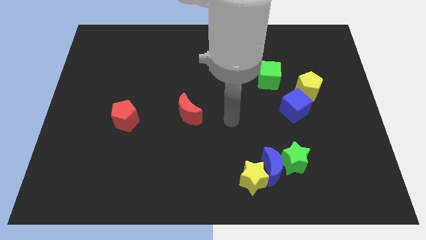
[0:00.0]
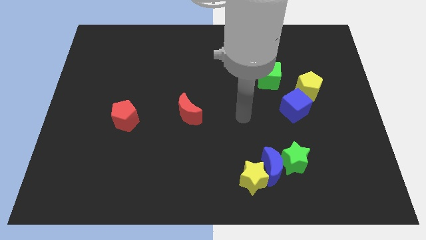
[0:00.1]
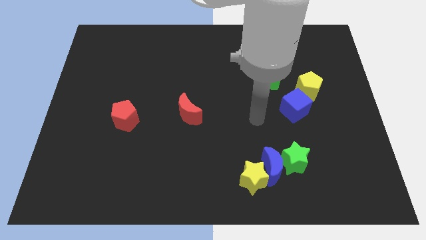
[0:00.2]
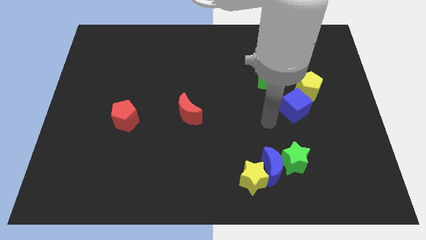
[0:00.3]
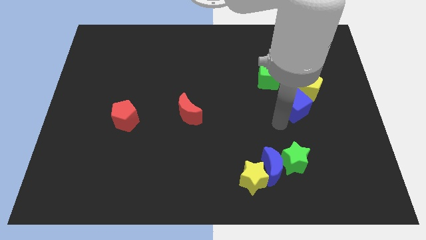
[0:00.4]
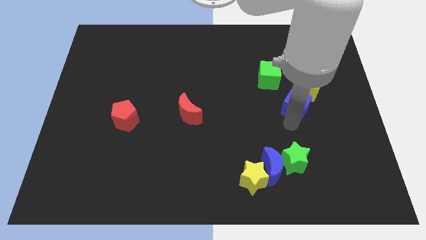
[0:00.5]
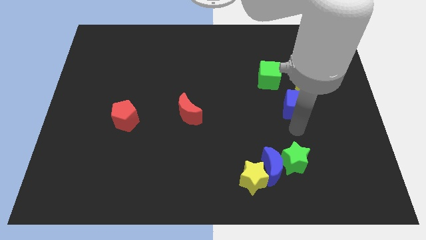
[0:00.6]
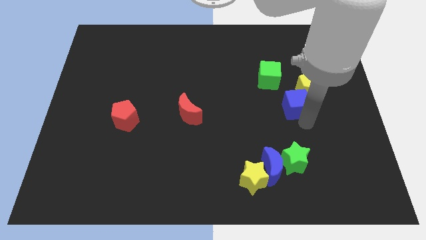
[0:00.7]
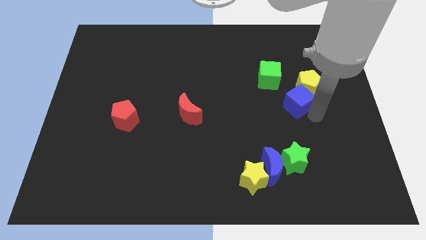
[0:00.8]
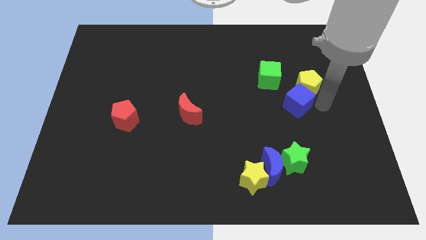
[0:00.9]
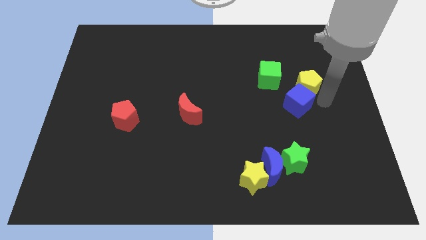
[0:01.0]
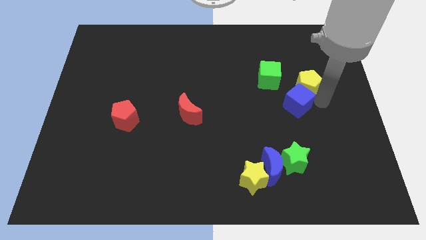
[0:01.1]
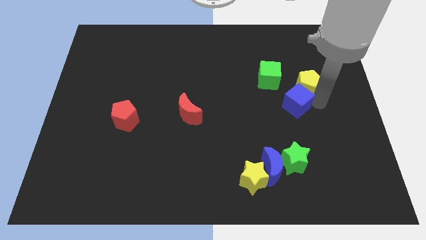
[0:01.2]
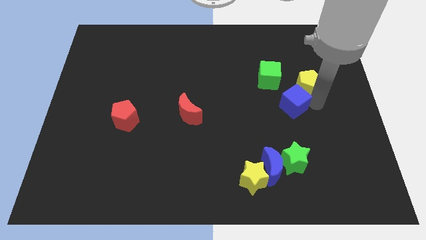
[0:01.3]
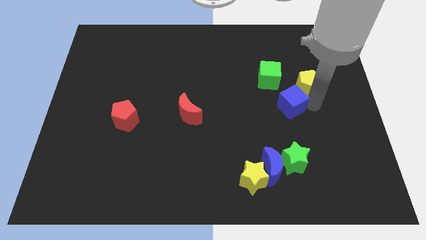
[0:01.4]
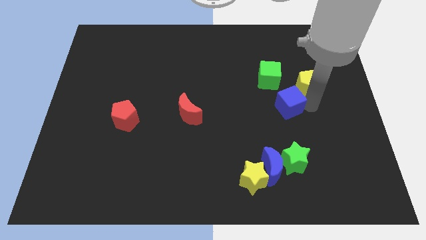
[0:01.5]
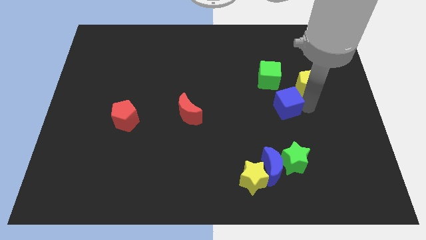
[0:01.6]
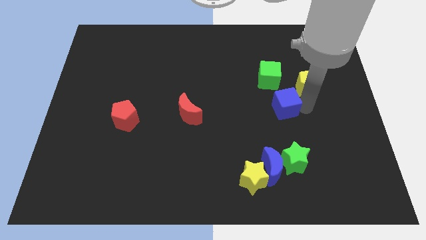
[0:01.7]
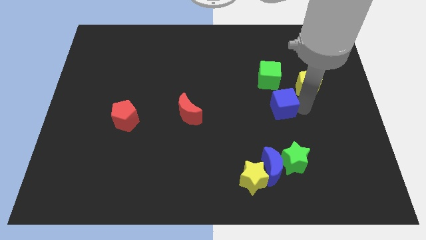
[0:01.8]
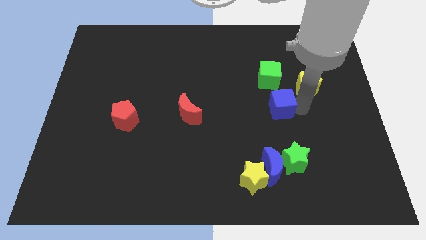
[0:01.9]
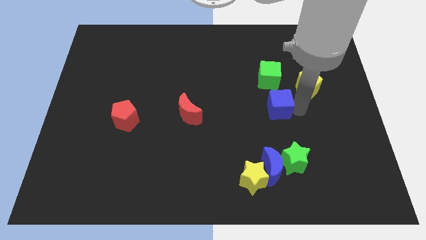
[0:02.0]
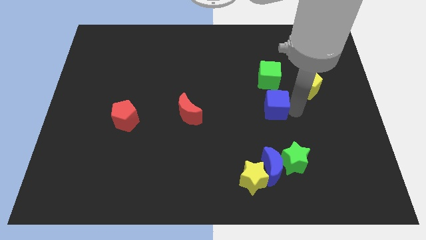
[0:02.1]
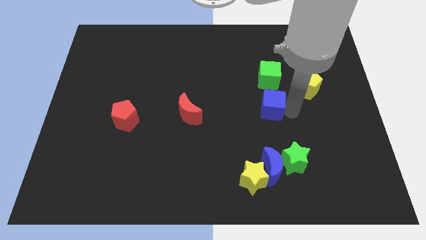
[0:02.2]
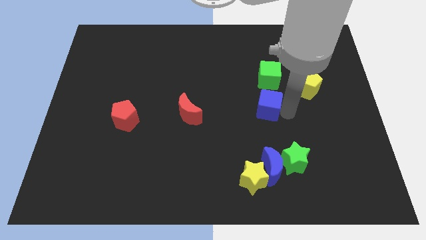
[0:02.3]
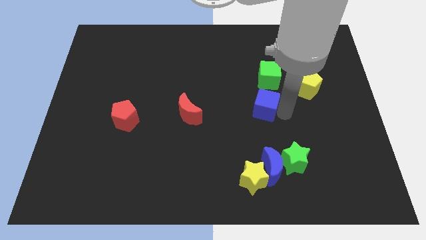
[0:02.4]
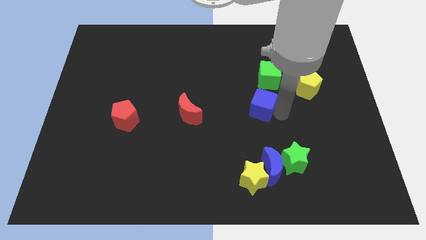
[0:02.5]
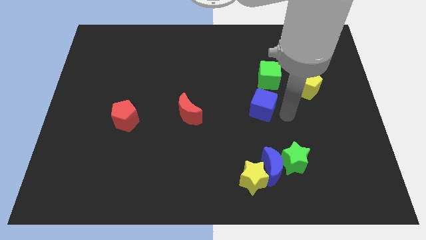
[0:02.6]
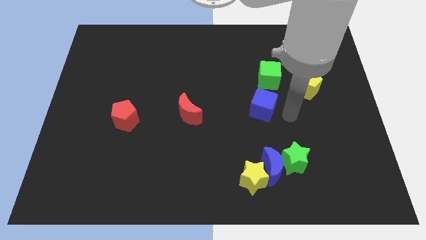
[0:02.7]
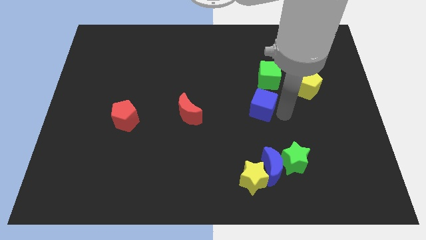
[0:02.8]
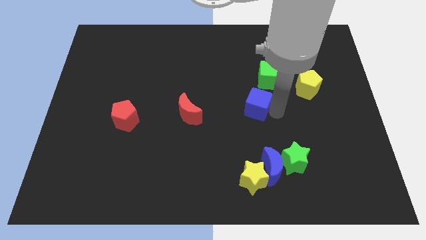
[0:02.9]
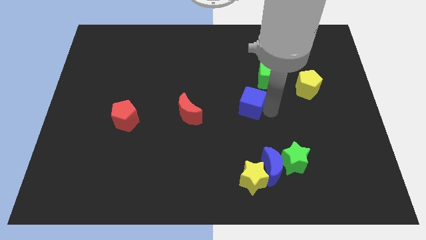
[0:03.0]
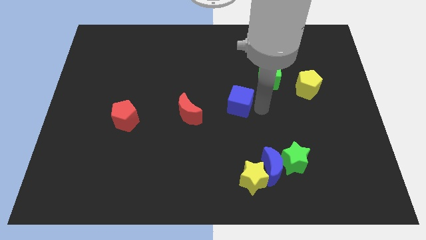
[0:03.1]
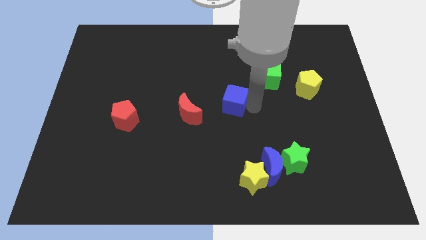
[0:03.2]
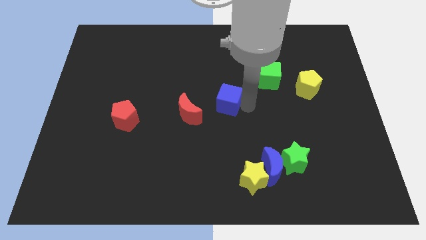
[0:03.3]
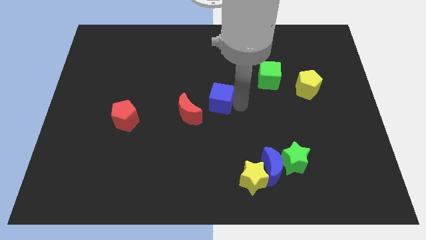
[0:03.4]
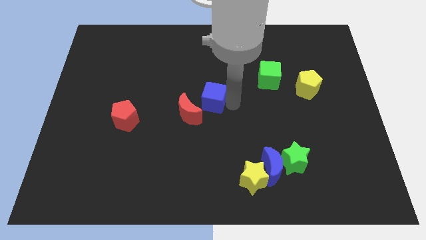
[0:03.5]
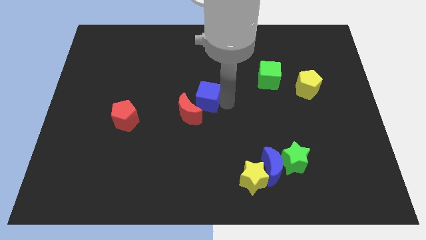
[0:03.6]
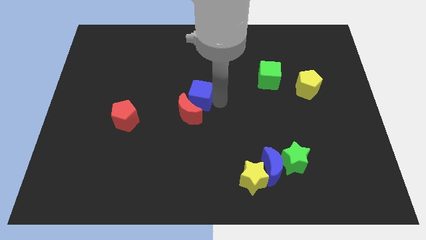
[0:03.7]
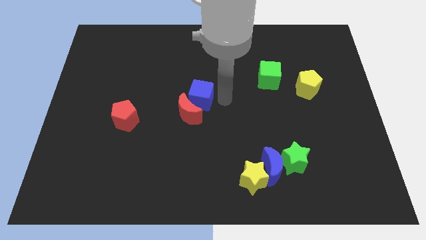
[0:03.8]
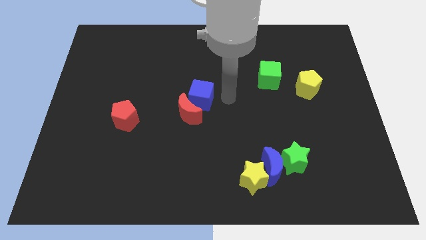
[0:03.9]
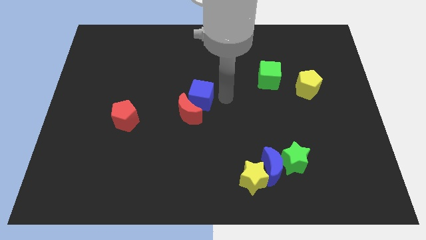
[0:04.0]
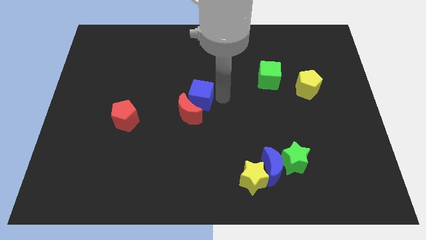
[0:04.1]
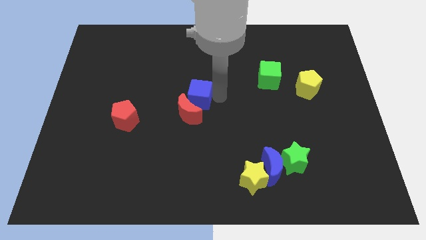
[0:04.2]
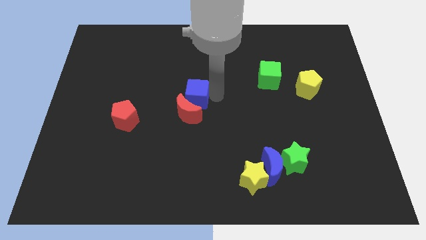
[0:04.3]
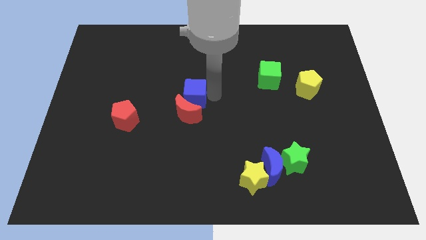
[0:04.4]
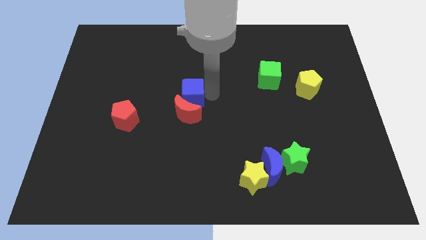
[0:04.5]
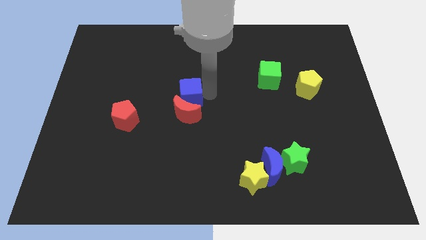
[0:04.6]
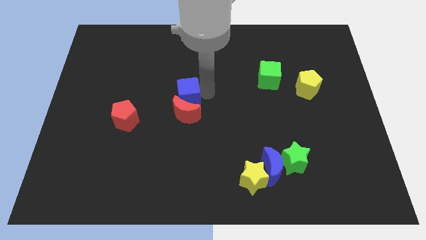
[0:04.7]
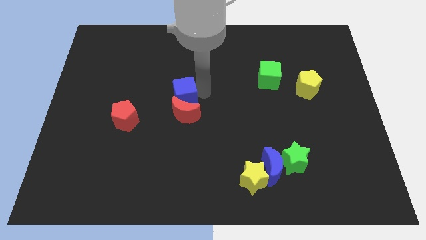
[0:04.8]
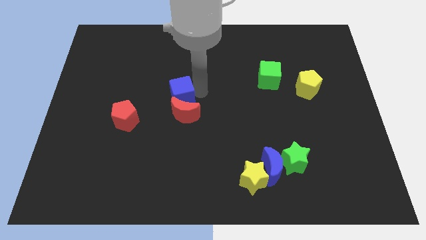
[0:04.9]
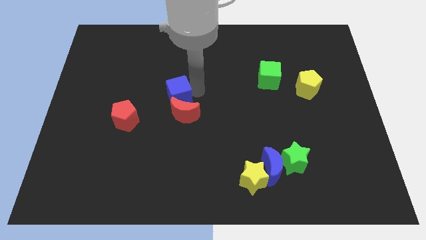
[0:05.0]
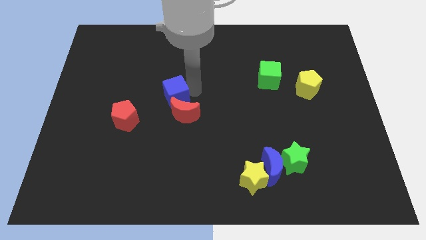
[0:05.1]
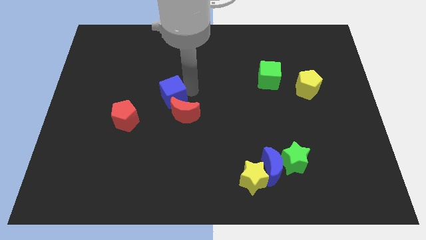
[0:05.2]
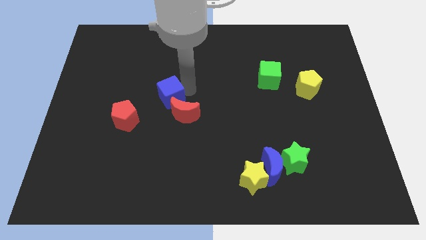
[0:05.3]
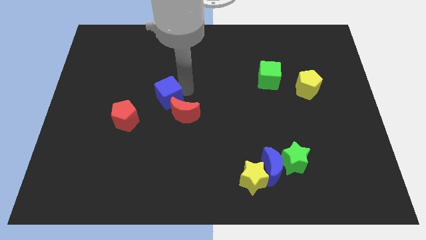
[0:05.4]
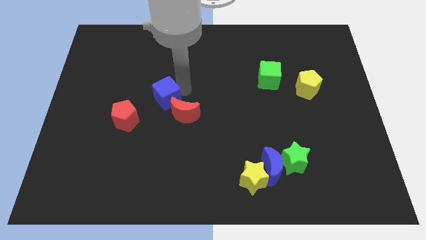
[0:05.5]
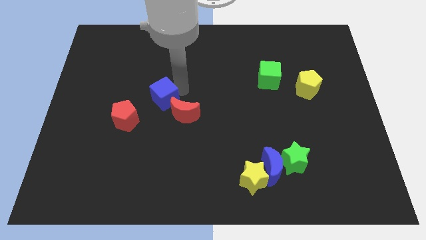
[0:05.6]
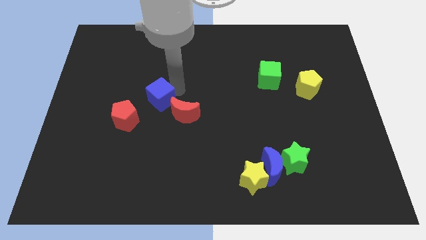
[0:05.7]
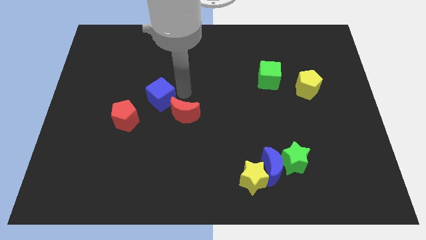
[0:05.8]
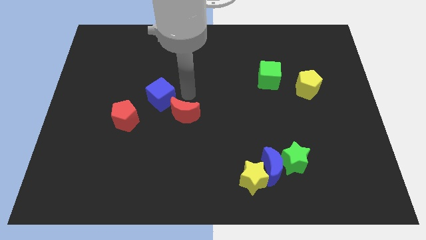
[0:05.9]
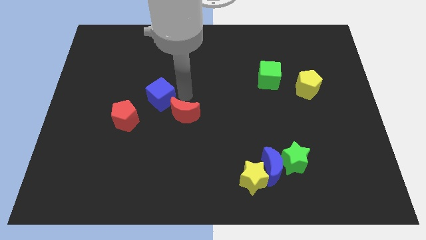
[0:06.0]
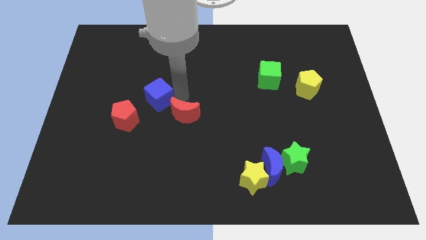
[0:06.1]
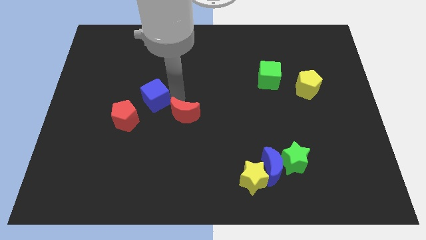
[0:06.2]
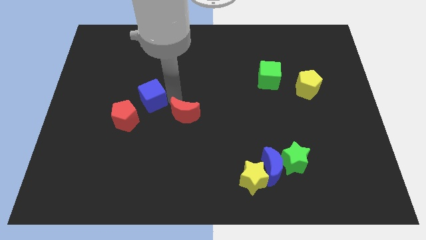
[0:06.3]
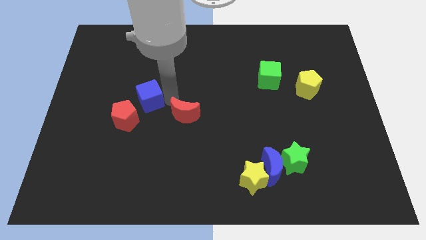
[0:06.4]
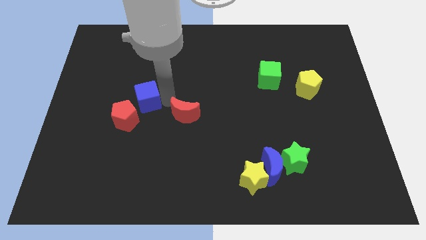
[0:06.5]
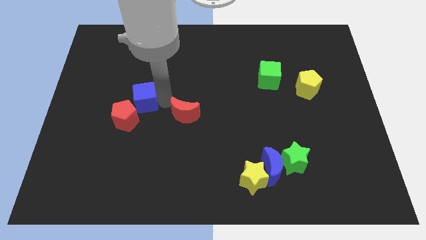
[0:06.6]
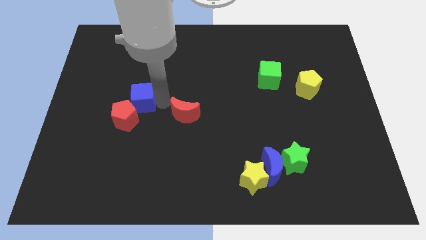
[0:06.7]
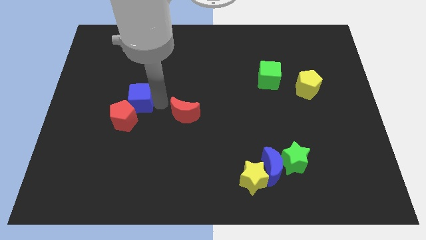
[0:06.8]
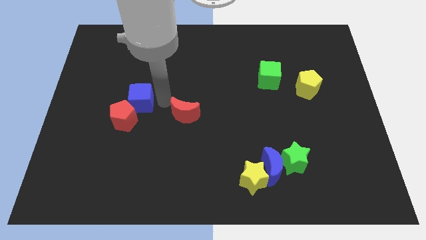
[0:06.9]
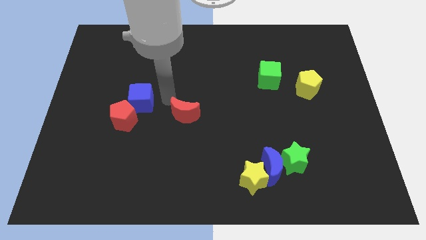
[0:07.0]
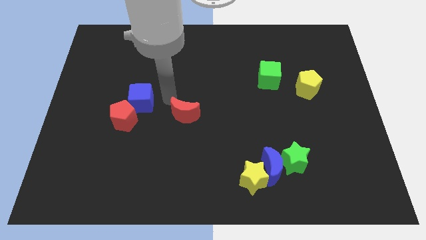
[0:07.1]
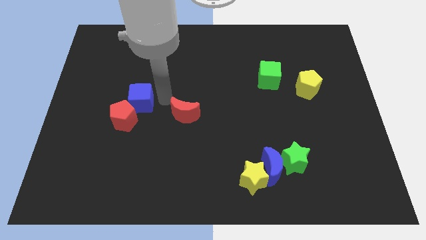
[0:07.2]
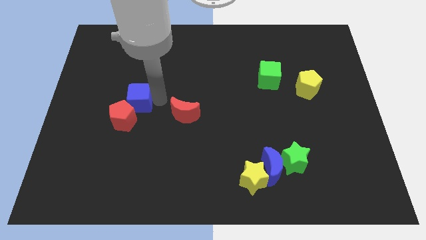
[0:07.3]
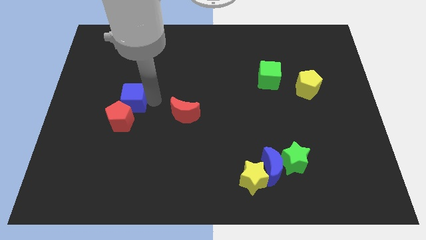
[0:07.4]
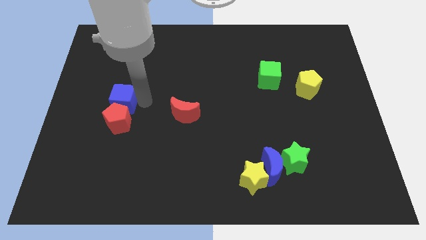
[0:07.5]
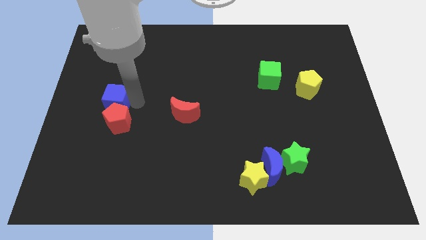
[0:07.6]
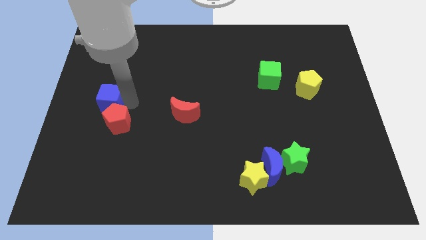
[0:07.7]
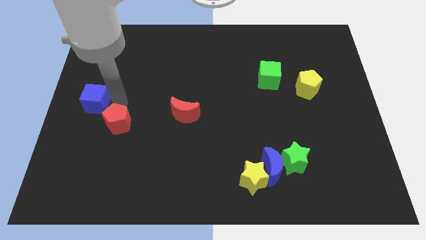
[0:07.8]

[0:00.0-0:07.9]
move the blue cube to the left side
